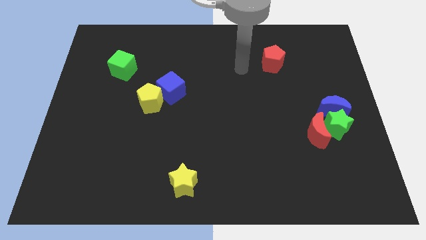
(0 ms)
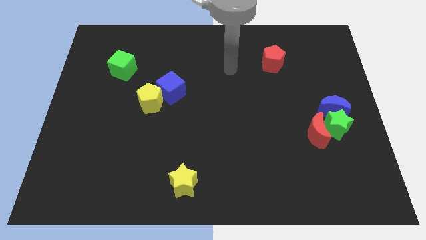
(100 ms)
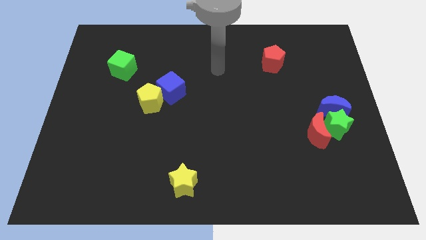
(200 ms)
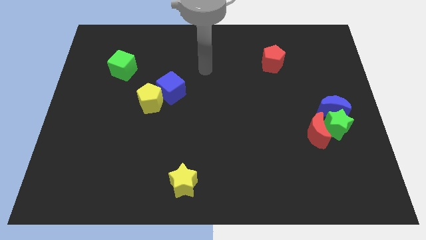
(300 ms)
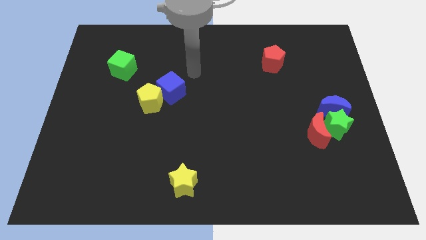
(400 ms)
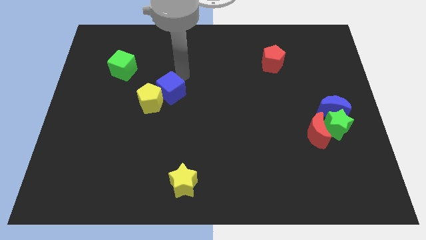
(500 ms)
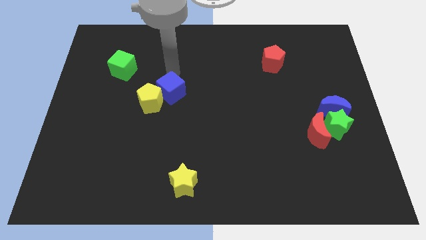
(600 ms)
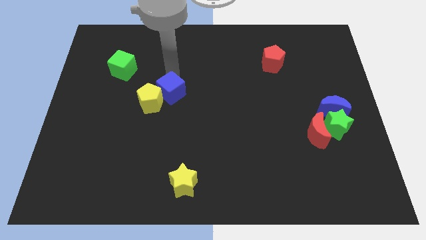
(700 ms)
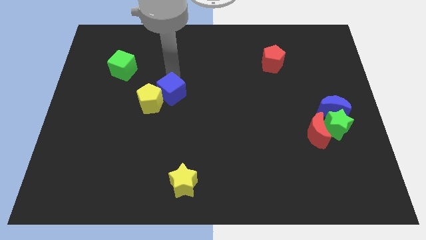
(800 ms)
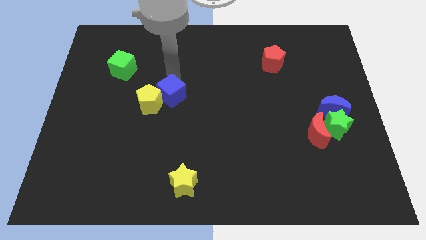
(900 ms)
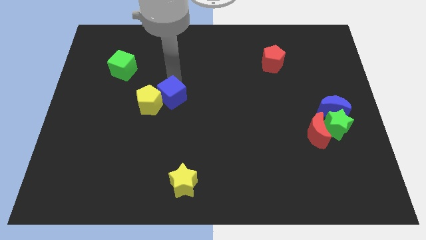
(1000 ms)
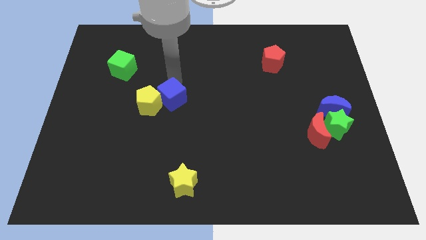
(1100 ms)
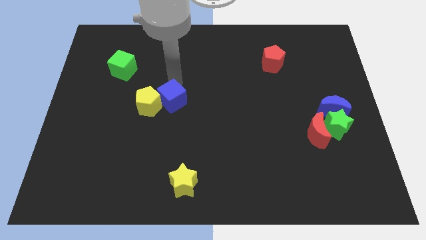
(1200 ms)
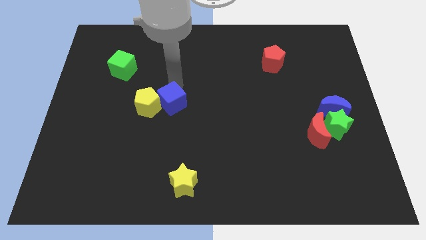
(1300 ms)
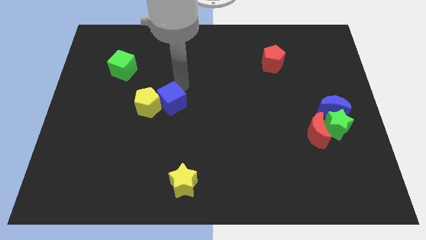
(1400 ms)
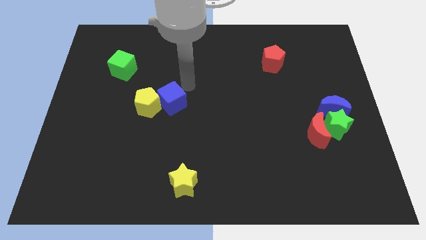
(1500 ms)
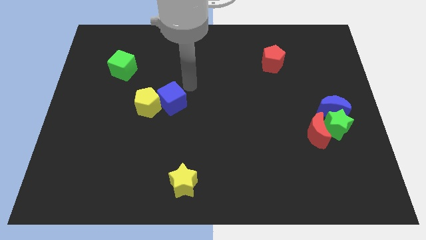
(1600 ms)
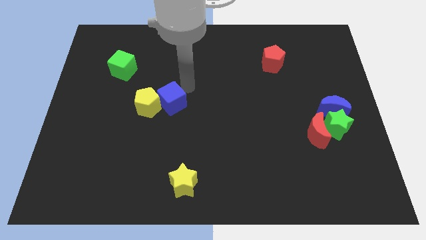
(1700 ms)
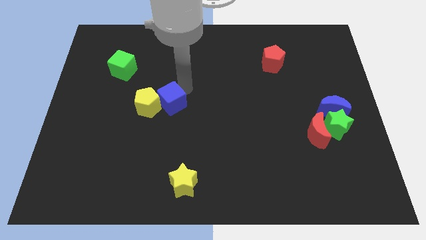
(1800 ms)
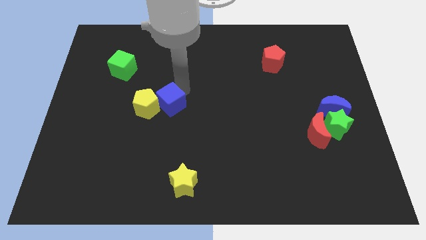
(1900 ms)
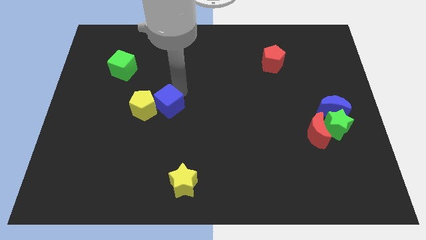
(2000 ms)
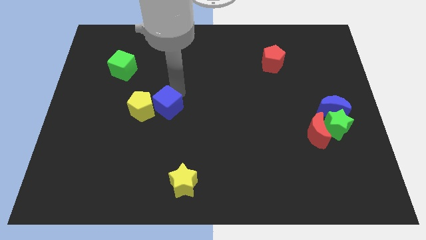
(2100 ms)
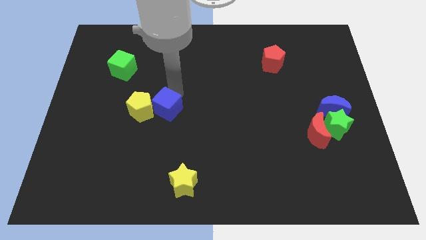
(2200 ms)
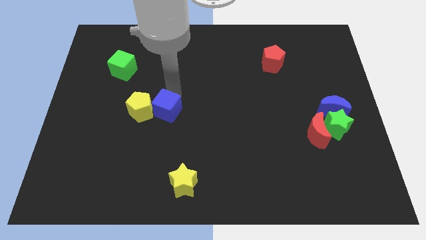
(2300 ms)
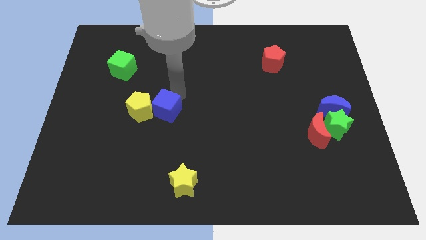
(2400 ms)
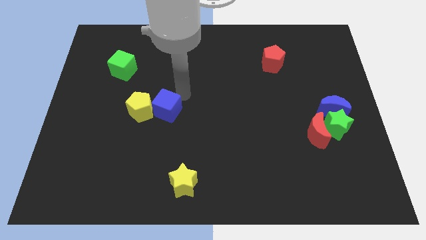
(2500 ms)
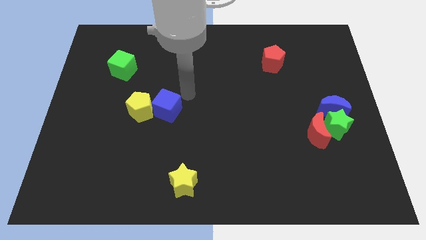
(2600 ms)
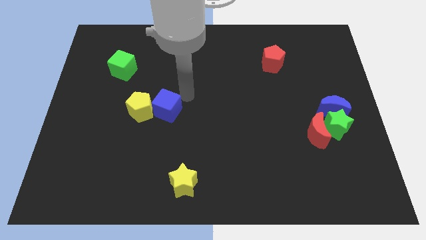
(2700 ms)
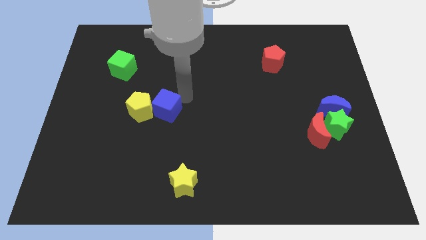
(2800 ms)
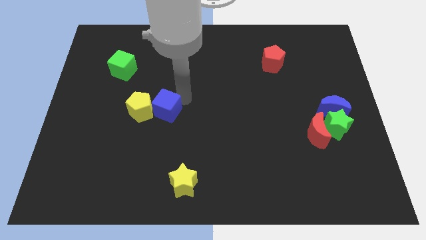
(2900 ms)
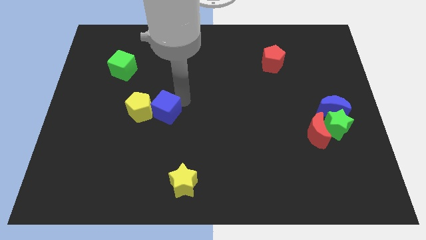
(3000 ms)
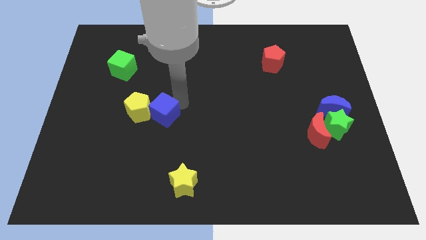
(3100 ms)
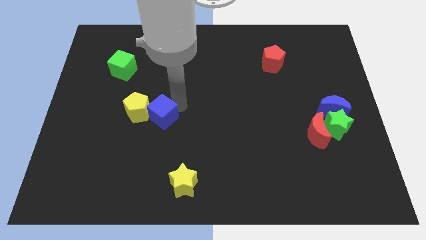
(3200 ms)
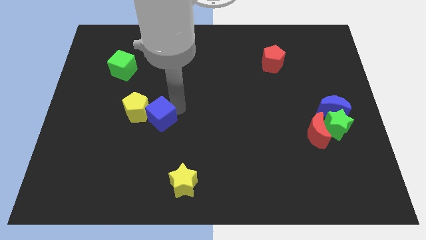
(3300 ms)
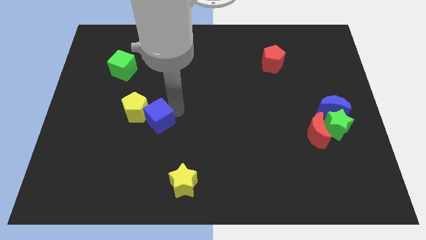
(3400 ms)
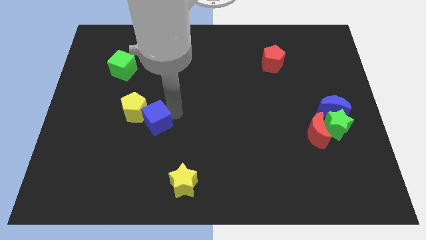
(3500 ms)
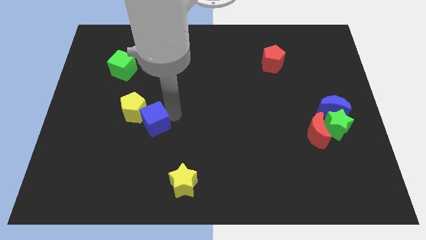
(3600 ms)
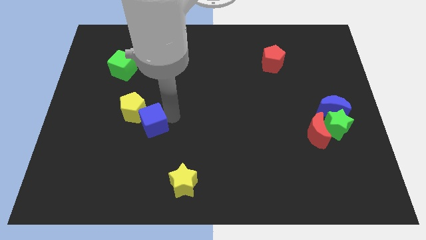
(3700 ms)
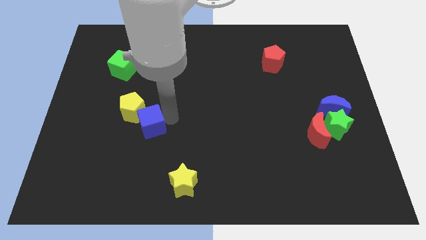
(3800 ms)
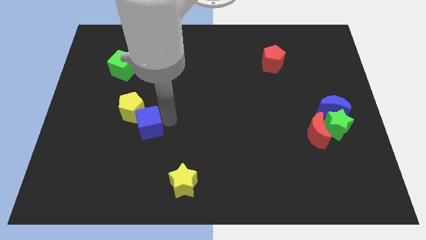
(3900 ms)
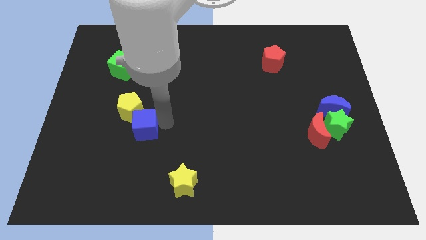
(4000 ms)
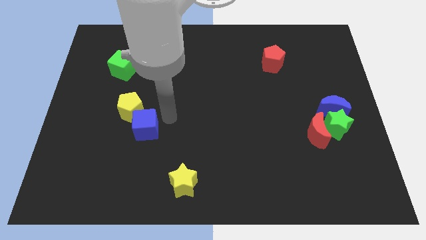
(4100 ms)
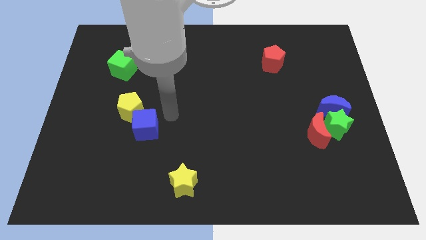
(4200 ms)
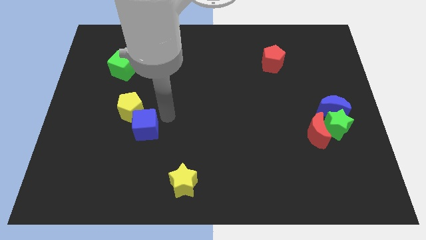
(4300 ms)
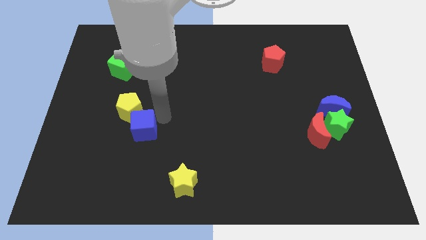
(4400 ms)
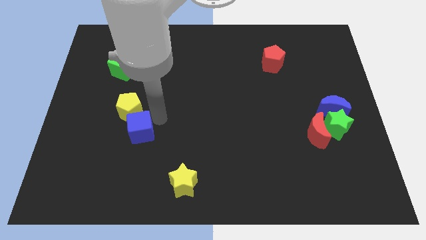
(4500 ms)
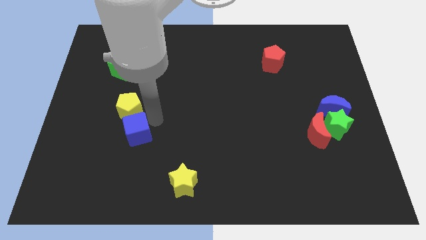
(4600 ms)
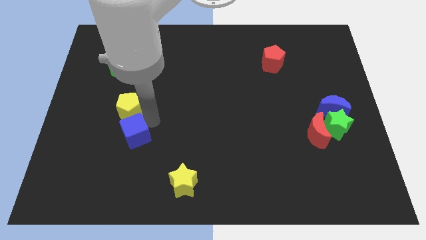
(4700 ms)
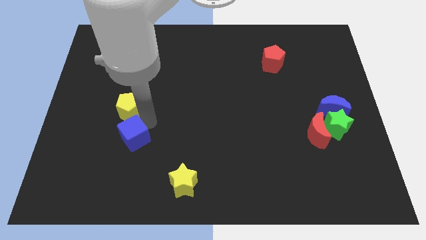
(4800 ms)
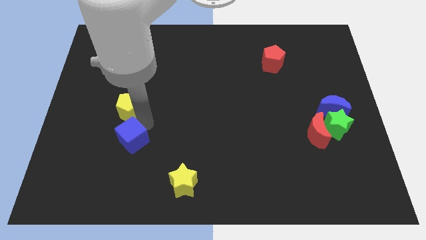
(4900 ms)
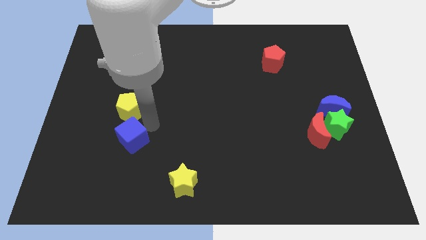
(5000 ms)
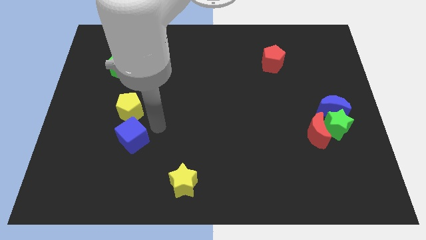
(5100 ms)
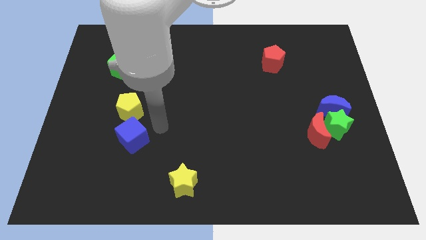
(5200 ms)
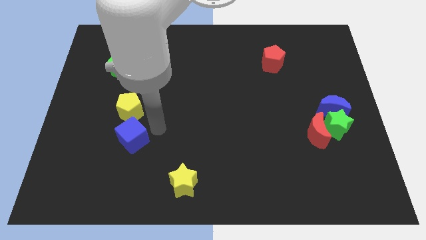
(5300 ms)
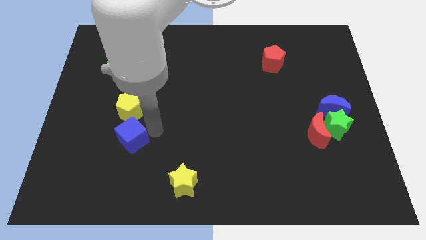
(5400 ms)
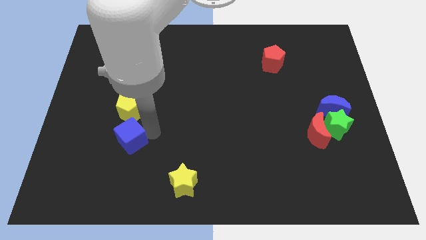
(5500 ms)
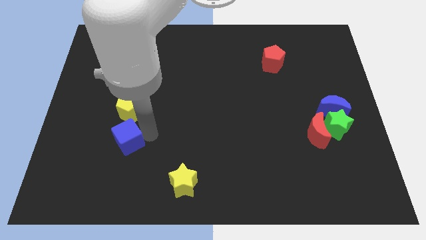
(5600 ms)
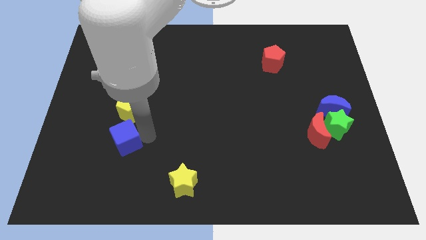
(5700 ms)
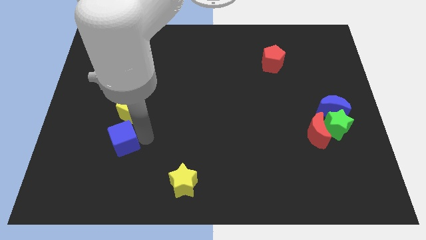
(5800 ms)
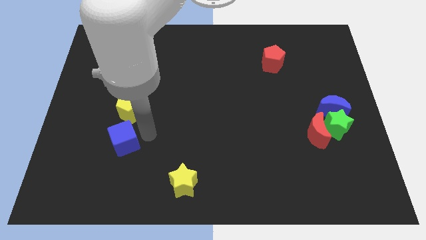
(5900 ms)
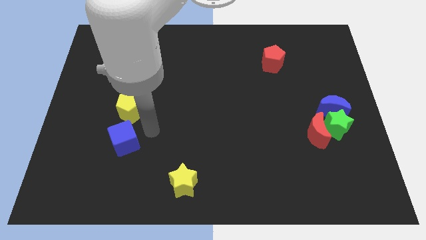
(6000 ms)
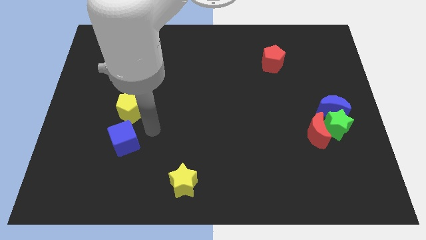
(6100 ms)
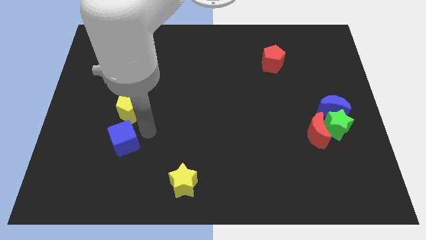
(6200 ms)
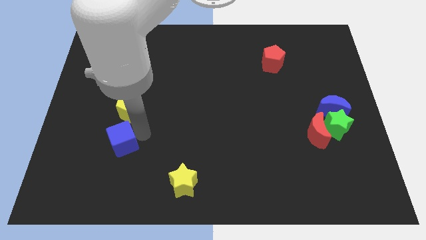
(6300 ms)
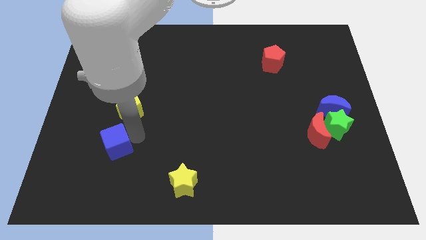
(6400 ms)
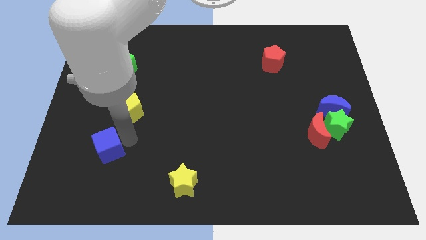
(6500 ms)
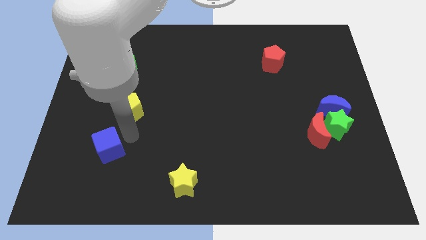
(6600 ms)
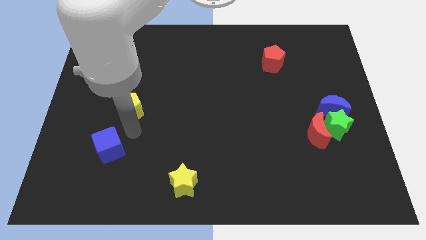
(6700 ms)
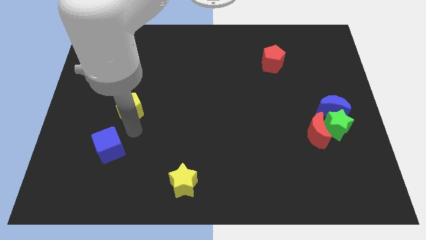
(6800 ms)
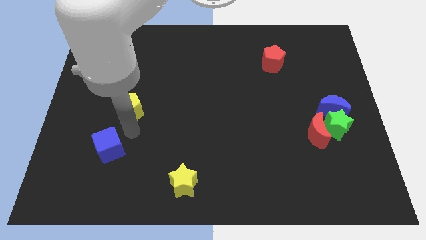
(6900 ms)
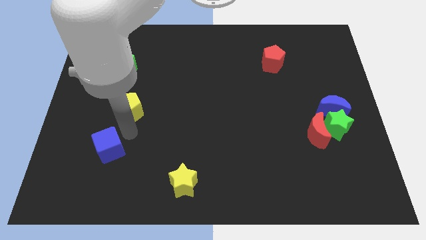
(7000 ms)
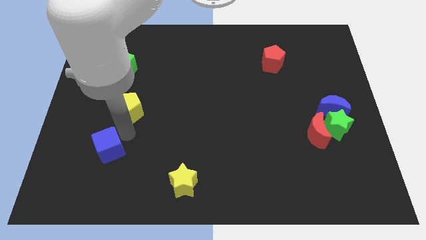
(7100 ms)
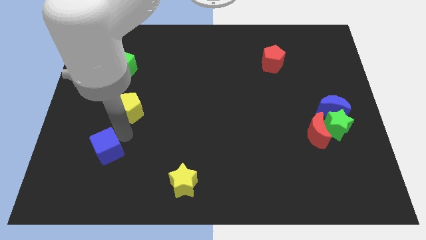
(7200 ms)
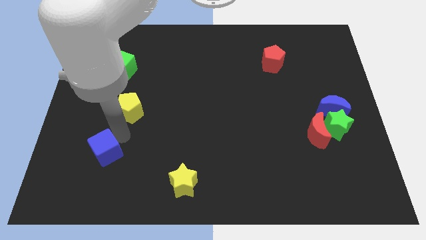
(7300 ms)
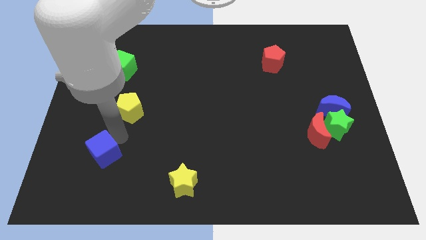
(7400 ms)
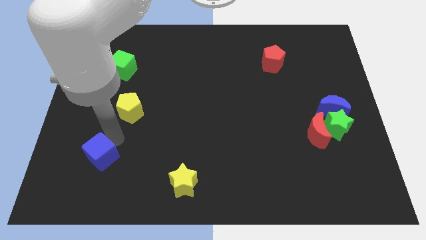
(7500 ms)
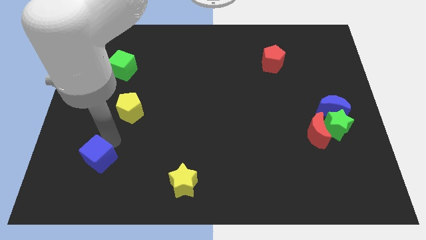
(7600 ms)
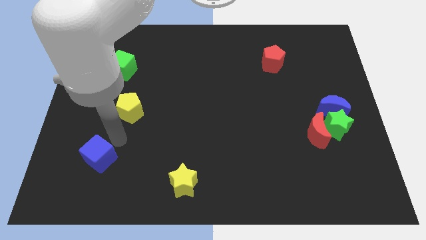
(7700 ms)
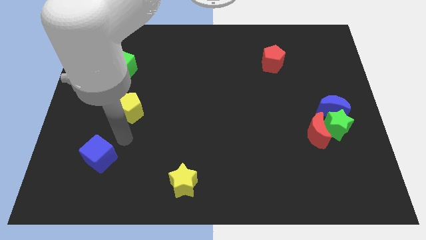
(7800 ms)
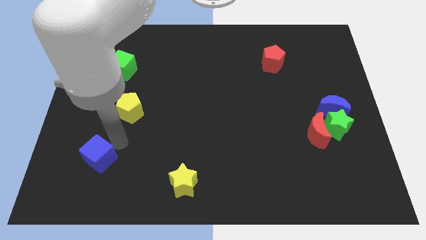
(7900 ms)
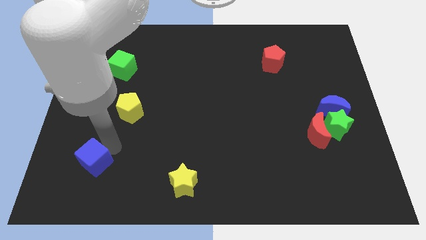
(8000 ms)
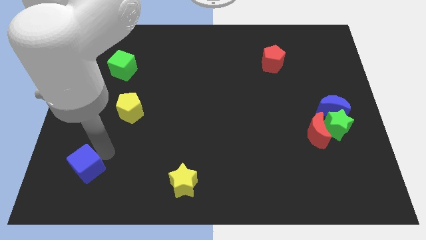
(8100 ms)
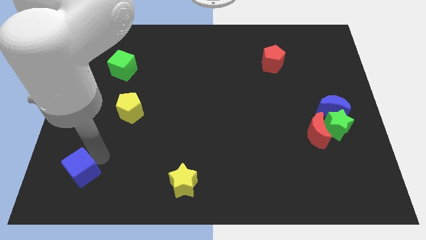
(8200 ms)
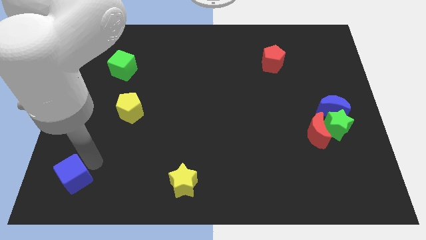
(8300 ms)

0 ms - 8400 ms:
move the blue cube to the bottom left of the board
